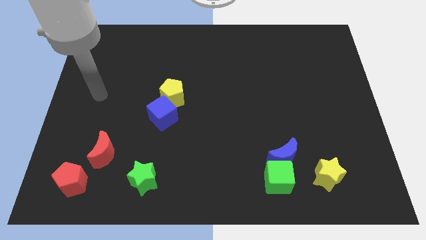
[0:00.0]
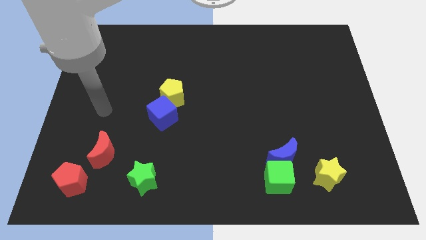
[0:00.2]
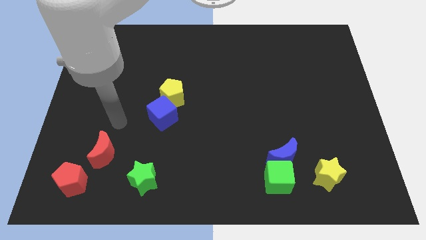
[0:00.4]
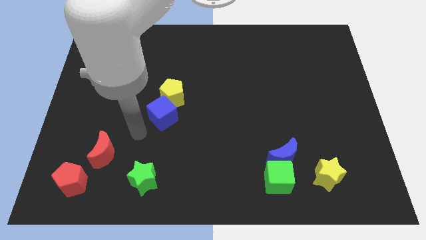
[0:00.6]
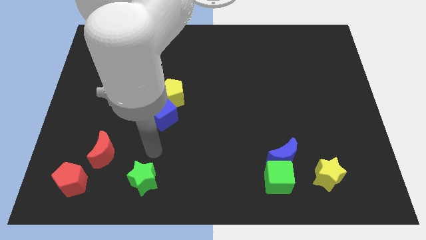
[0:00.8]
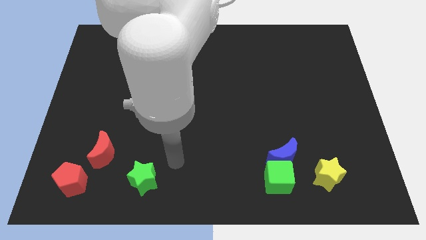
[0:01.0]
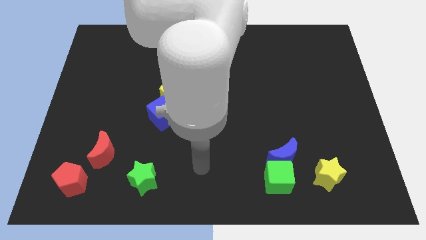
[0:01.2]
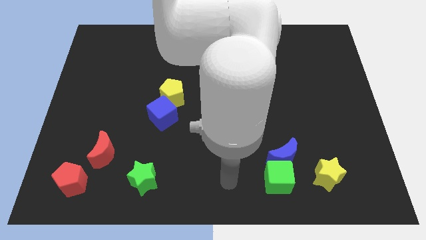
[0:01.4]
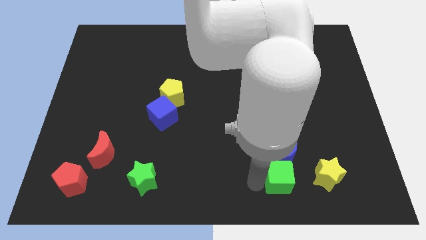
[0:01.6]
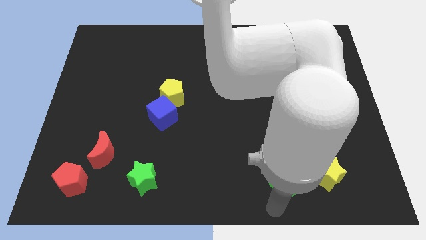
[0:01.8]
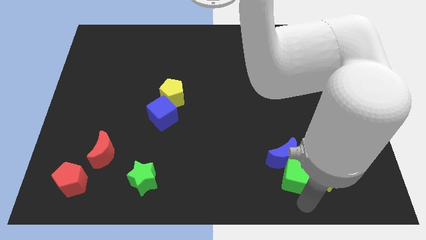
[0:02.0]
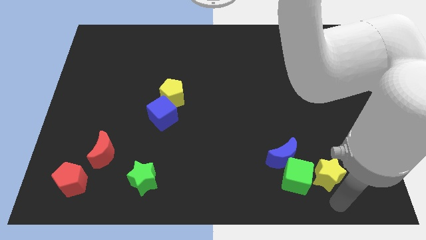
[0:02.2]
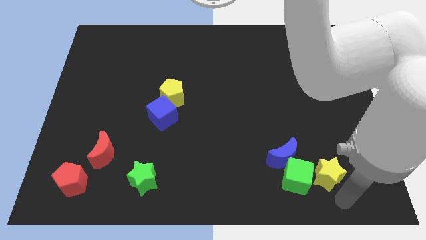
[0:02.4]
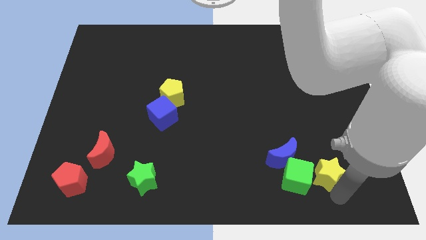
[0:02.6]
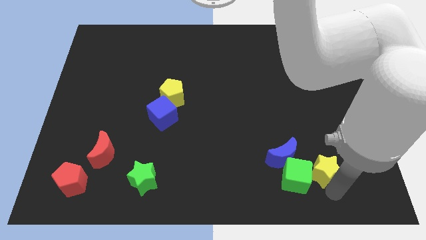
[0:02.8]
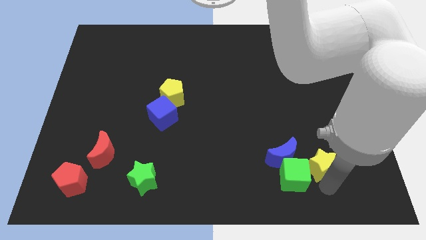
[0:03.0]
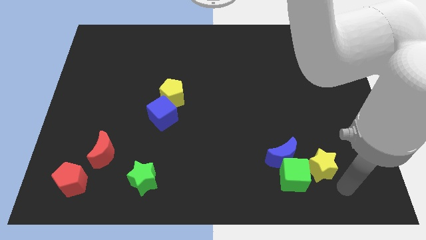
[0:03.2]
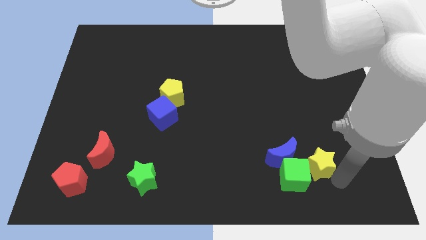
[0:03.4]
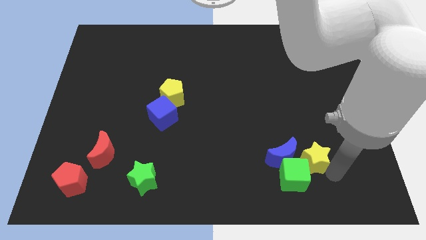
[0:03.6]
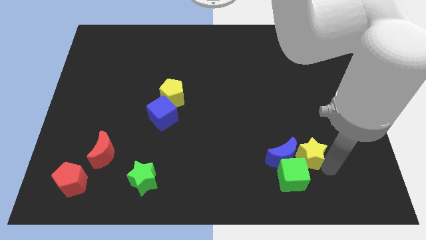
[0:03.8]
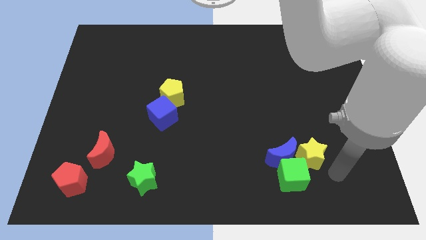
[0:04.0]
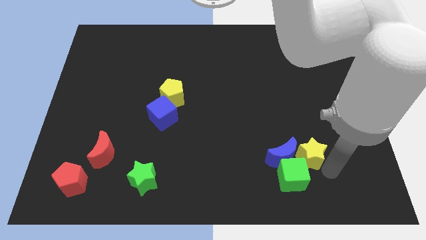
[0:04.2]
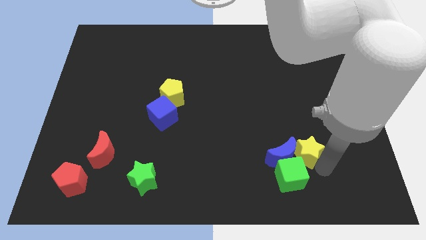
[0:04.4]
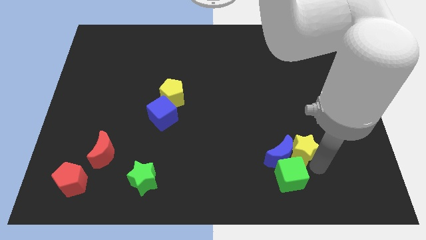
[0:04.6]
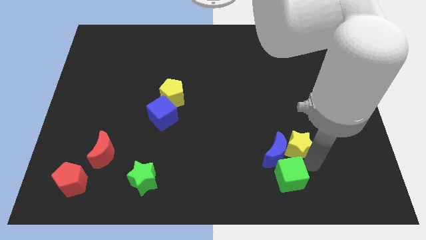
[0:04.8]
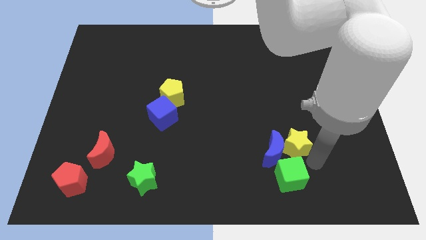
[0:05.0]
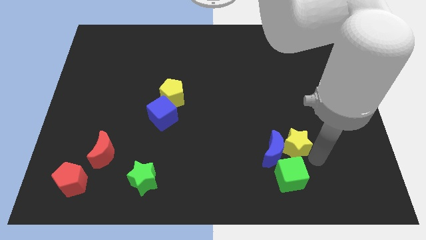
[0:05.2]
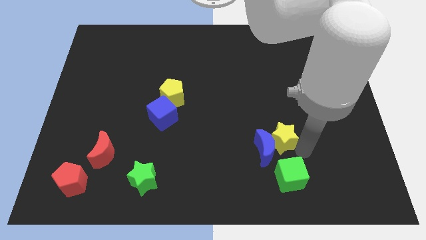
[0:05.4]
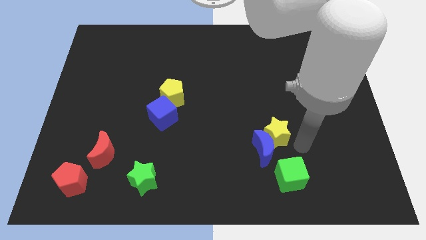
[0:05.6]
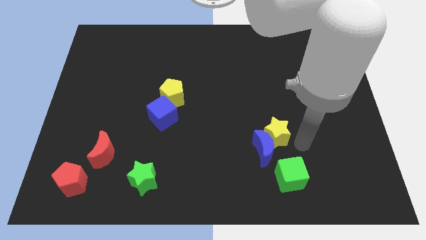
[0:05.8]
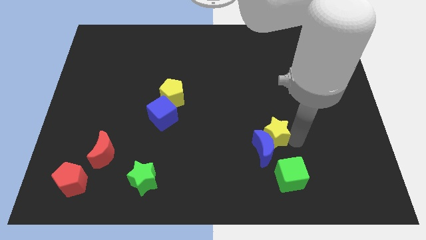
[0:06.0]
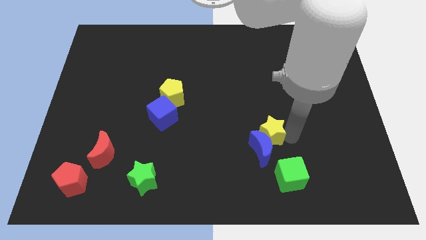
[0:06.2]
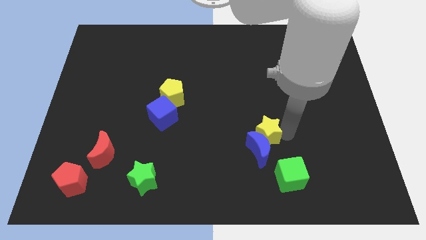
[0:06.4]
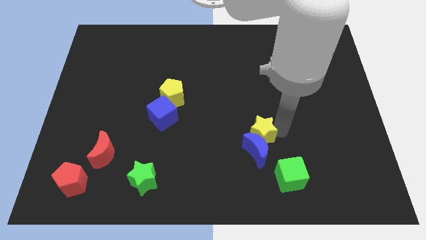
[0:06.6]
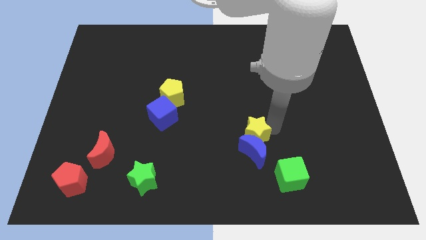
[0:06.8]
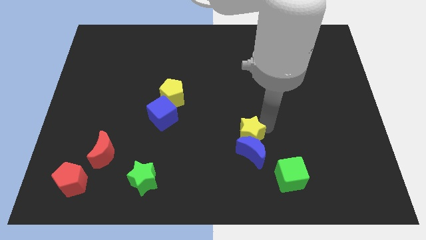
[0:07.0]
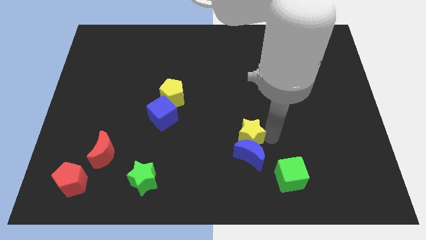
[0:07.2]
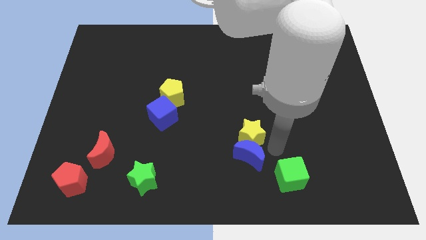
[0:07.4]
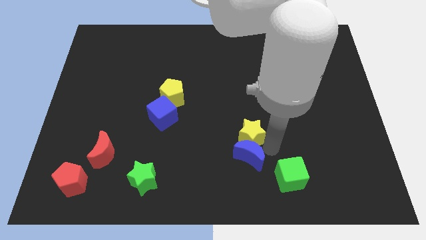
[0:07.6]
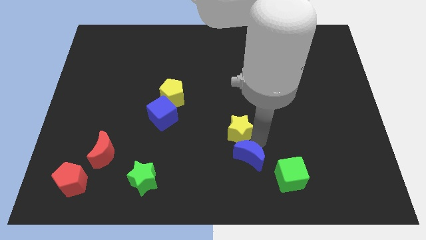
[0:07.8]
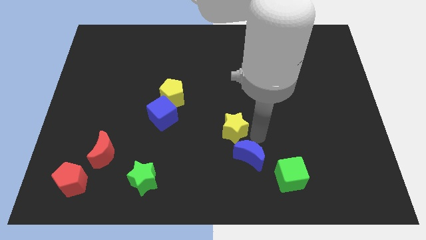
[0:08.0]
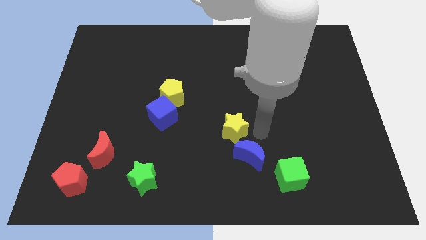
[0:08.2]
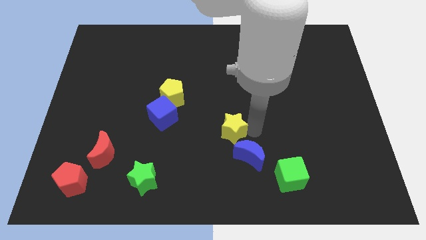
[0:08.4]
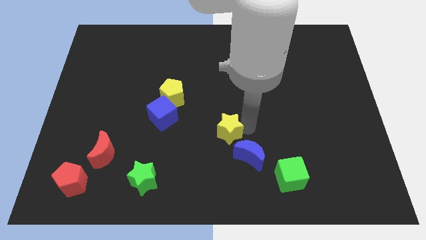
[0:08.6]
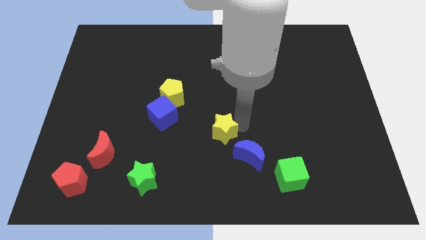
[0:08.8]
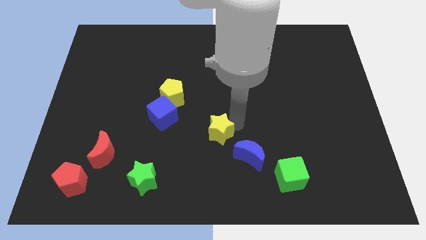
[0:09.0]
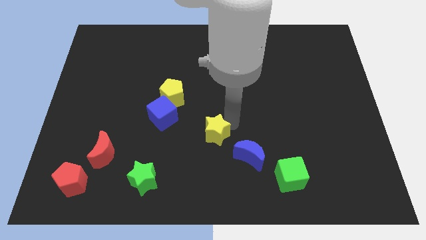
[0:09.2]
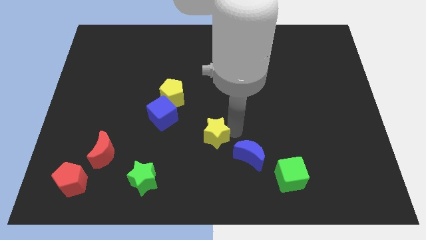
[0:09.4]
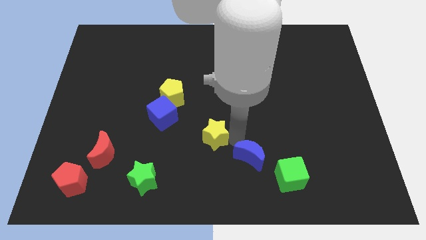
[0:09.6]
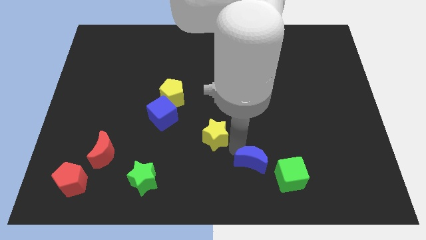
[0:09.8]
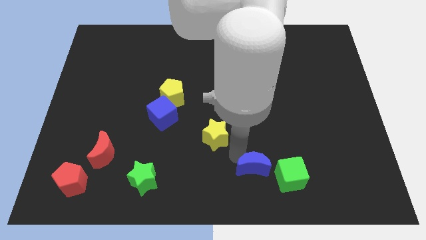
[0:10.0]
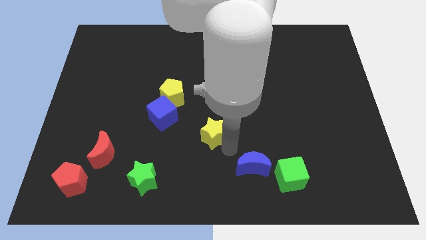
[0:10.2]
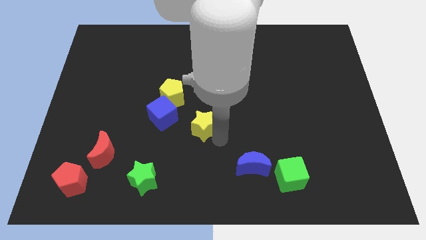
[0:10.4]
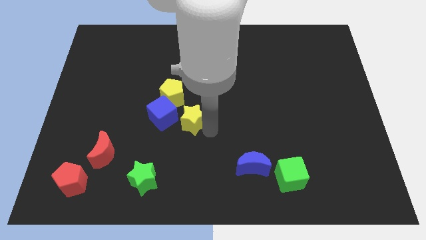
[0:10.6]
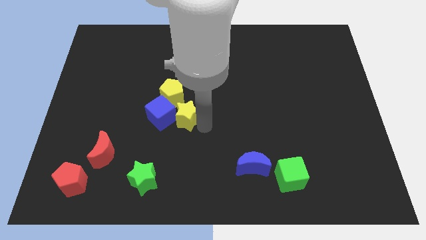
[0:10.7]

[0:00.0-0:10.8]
move the yellow star to the blue cube

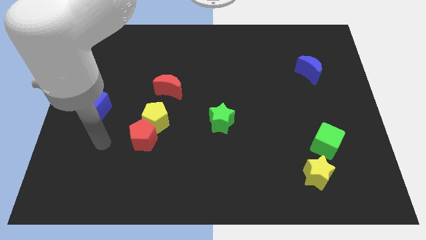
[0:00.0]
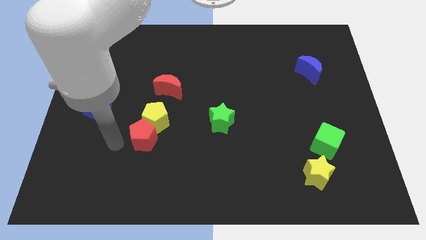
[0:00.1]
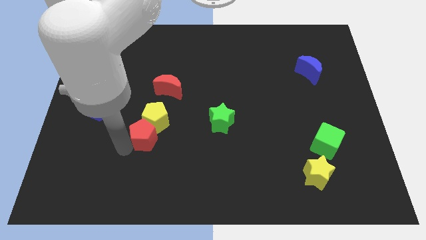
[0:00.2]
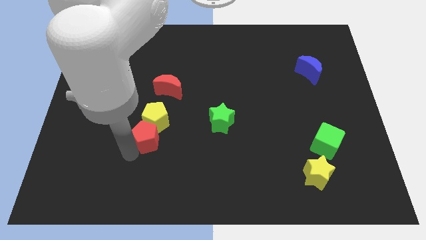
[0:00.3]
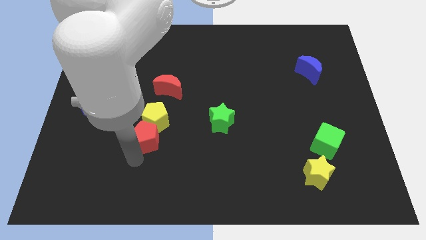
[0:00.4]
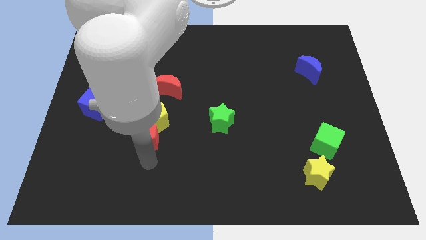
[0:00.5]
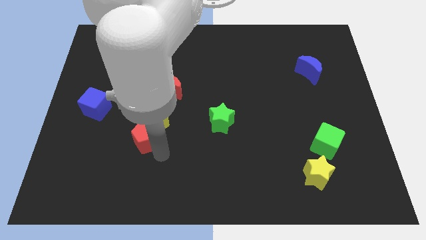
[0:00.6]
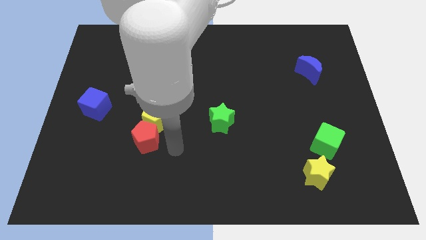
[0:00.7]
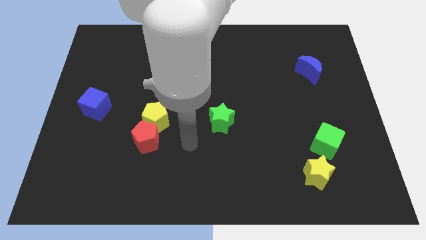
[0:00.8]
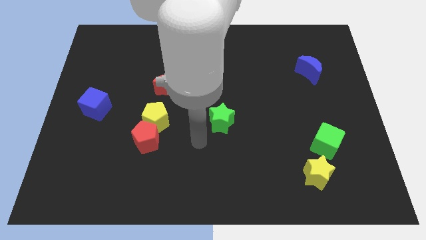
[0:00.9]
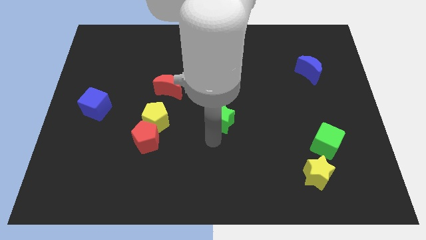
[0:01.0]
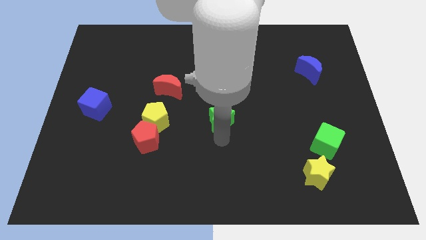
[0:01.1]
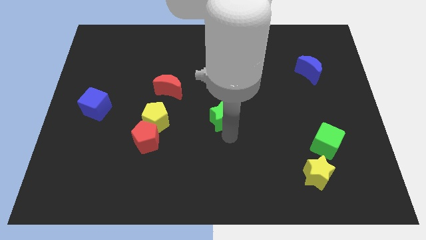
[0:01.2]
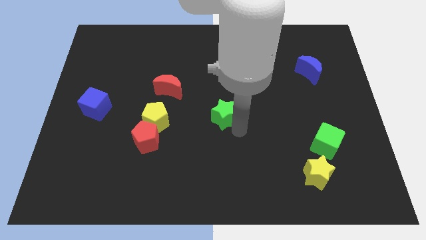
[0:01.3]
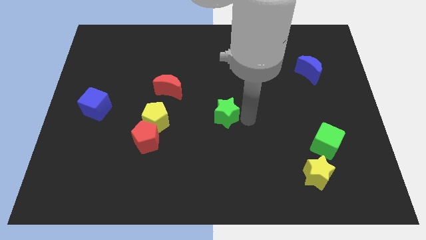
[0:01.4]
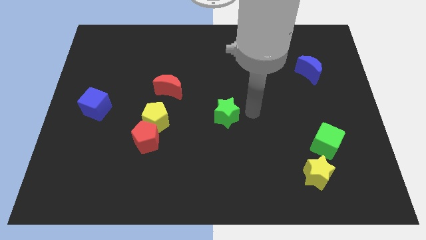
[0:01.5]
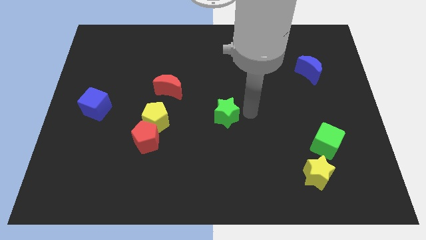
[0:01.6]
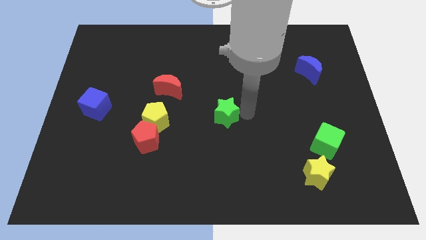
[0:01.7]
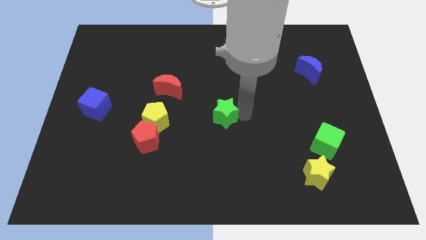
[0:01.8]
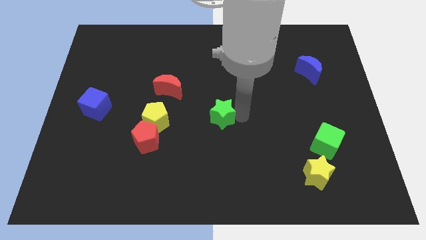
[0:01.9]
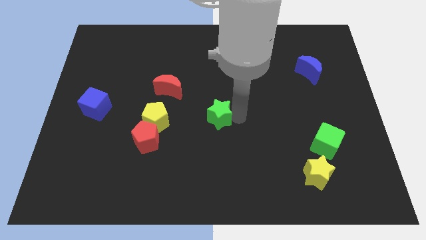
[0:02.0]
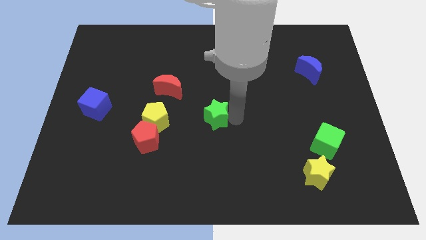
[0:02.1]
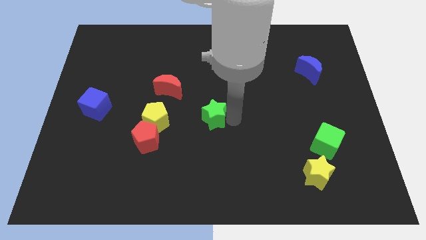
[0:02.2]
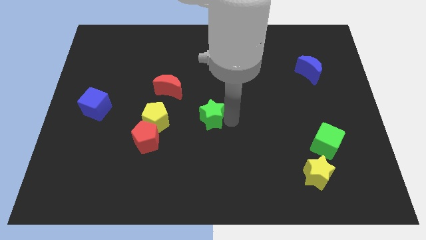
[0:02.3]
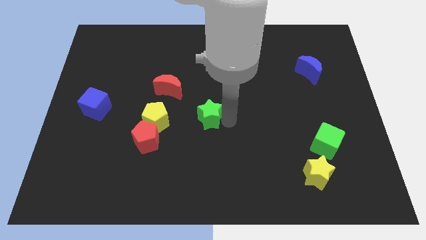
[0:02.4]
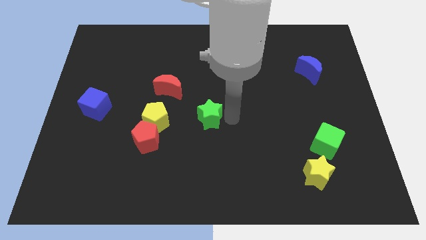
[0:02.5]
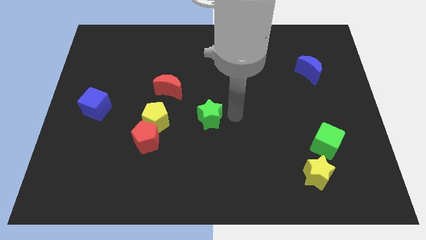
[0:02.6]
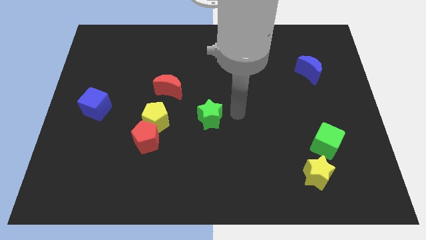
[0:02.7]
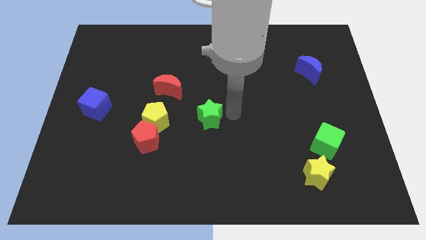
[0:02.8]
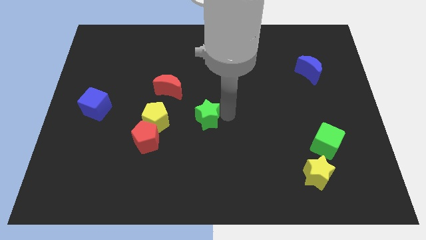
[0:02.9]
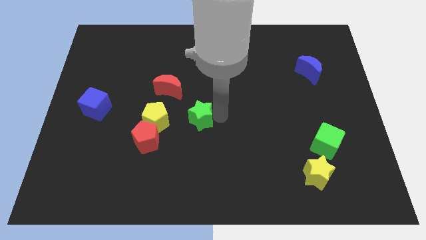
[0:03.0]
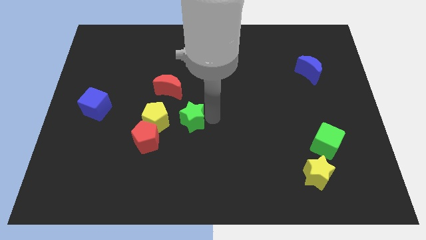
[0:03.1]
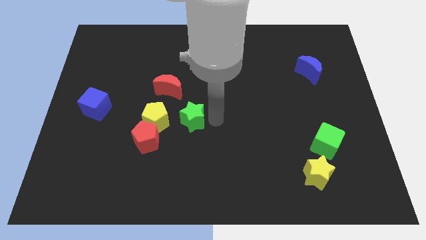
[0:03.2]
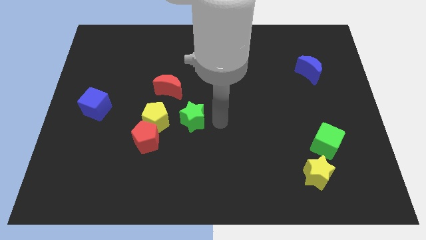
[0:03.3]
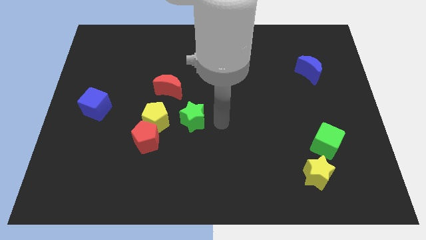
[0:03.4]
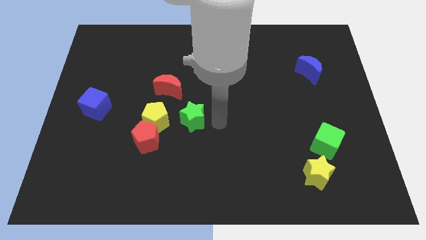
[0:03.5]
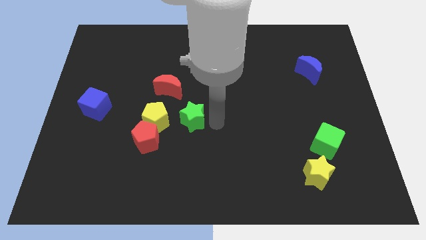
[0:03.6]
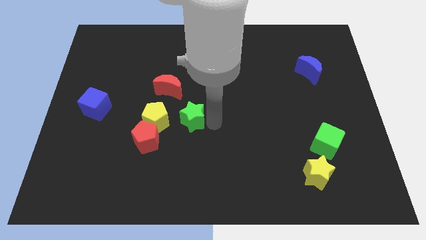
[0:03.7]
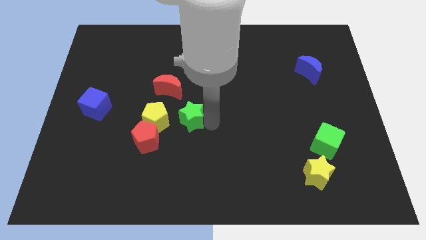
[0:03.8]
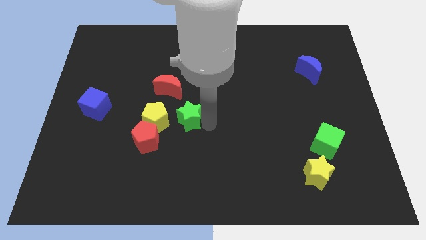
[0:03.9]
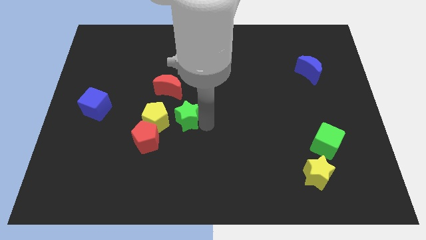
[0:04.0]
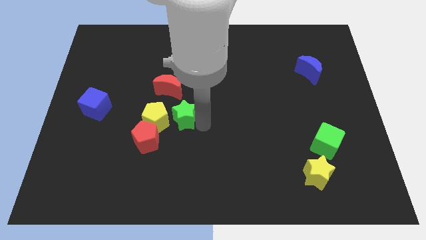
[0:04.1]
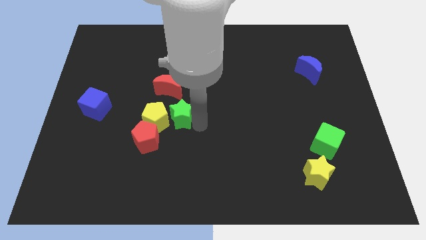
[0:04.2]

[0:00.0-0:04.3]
move the green star towards the yellow pentagon
